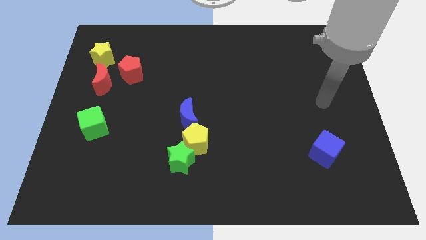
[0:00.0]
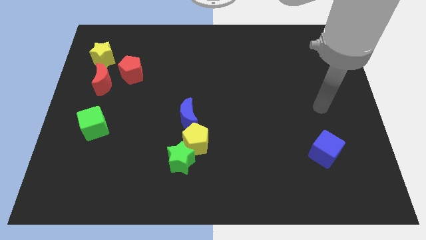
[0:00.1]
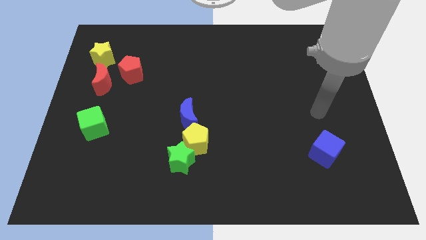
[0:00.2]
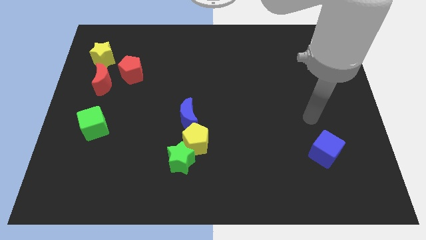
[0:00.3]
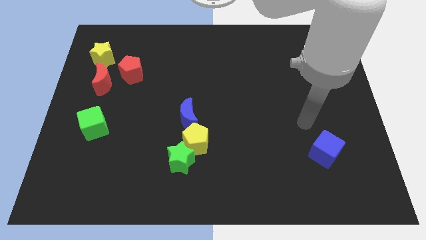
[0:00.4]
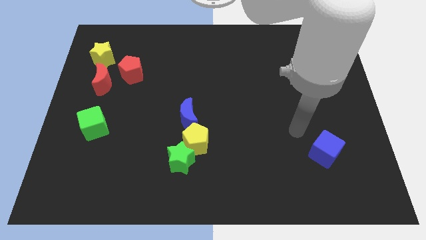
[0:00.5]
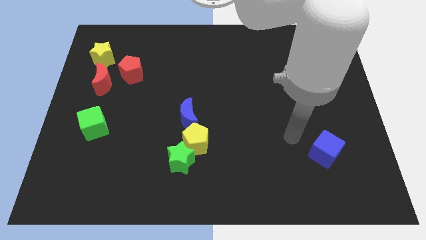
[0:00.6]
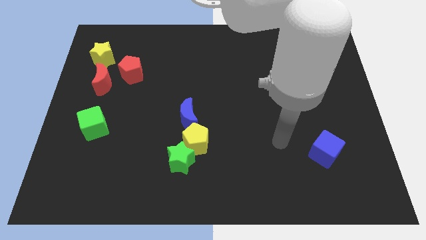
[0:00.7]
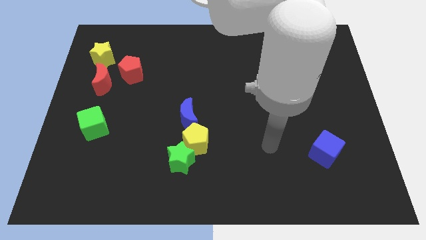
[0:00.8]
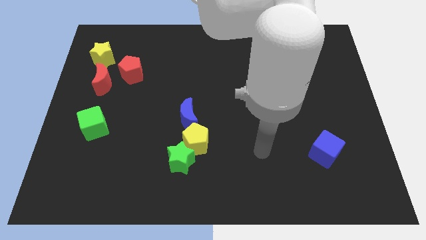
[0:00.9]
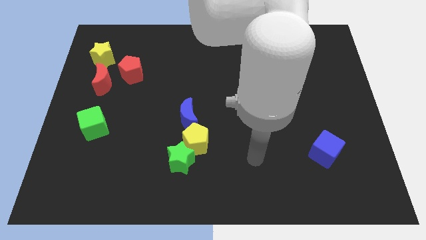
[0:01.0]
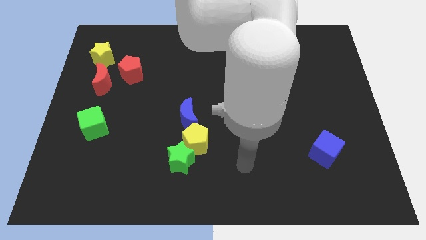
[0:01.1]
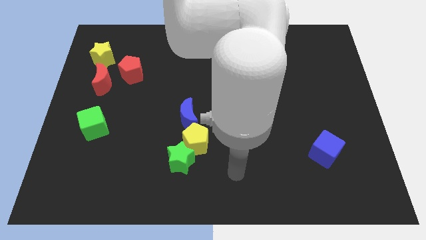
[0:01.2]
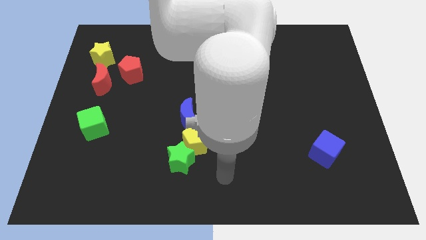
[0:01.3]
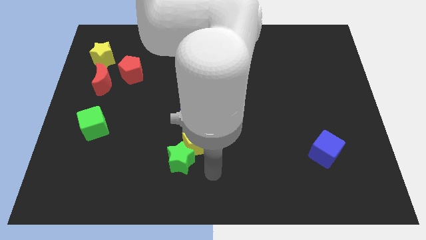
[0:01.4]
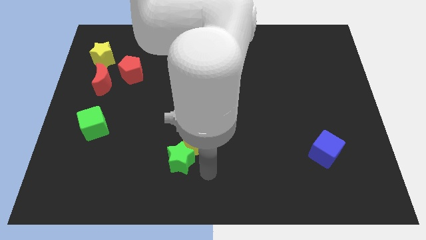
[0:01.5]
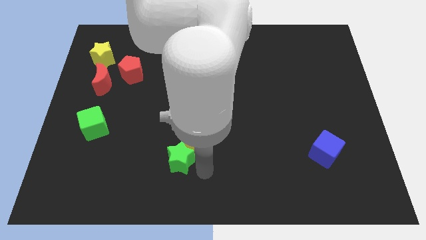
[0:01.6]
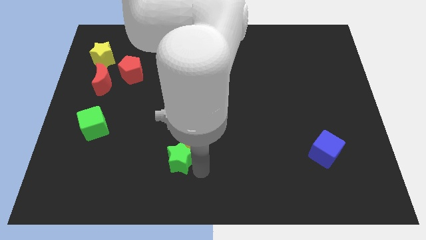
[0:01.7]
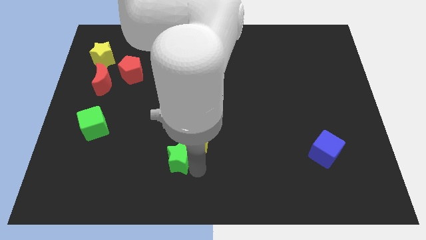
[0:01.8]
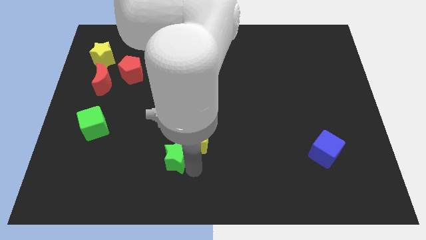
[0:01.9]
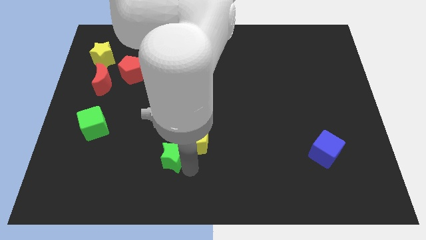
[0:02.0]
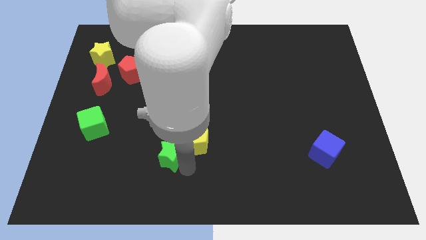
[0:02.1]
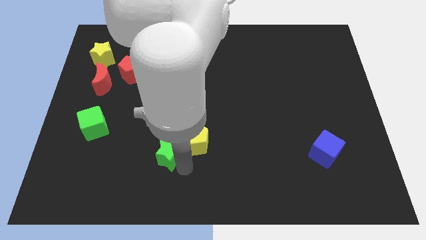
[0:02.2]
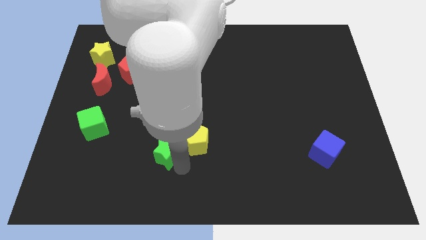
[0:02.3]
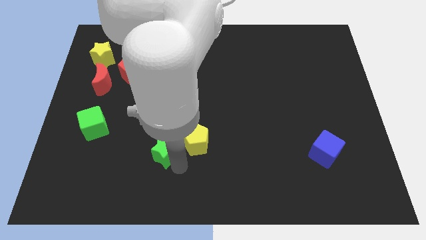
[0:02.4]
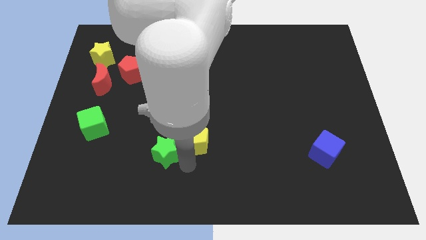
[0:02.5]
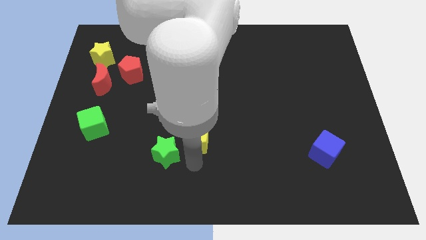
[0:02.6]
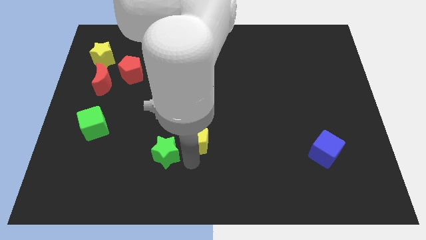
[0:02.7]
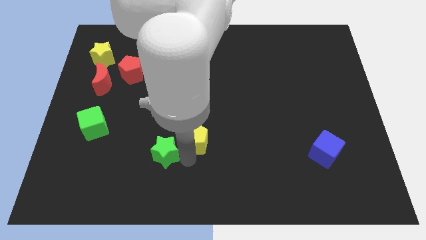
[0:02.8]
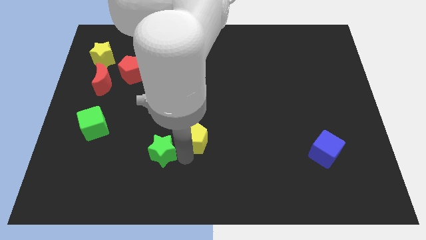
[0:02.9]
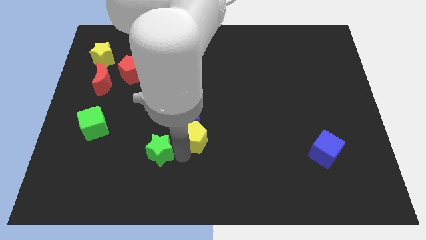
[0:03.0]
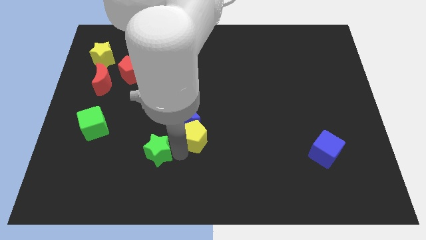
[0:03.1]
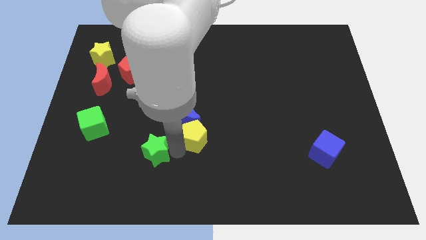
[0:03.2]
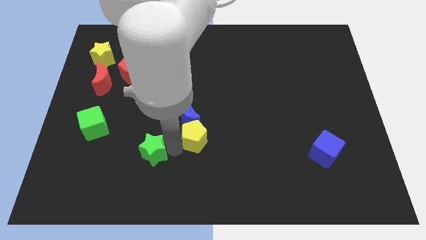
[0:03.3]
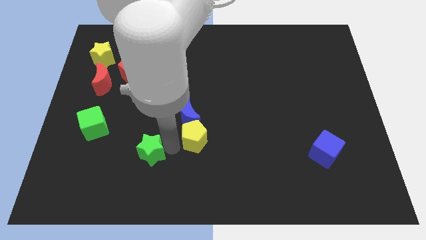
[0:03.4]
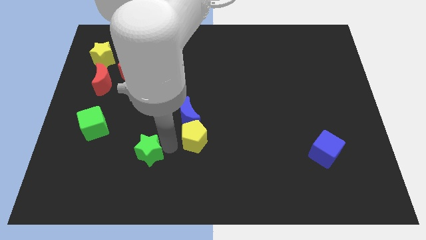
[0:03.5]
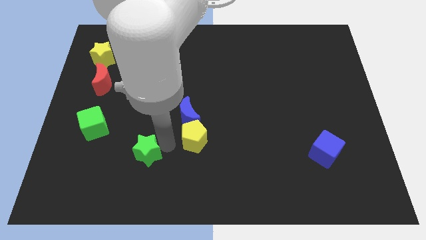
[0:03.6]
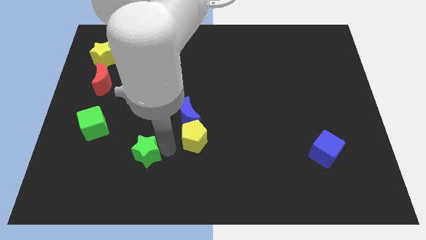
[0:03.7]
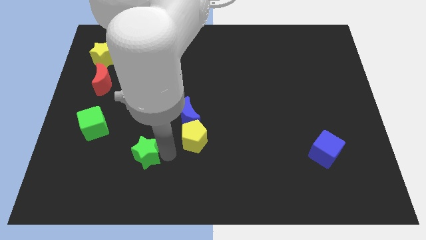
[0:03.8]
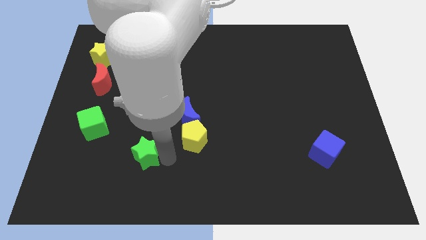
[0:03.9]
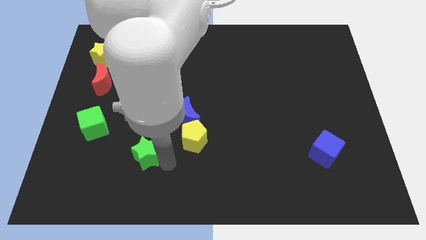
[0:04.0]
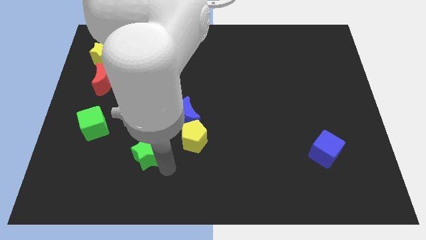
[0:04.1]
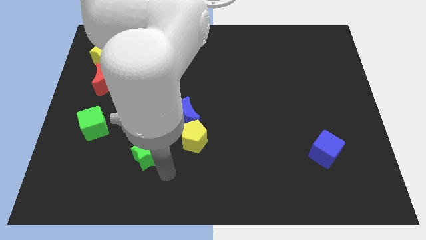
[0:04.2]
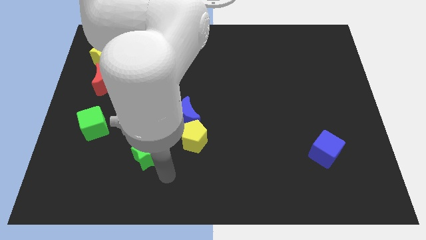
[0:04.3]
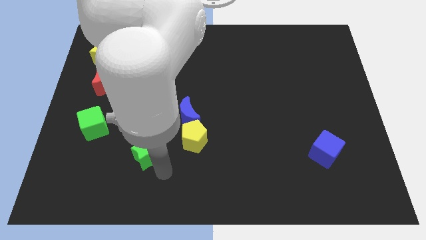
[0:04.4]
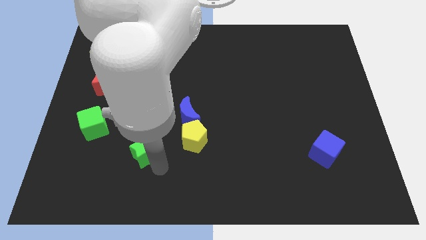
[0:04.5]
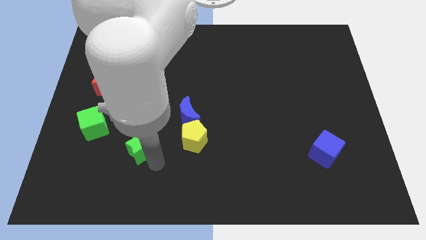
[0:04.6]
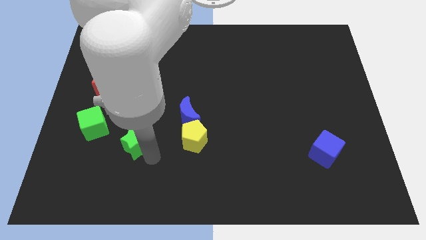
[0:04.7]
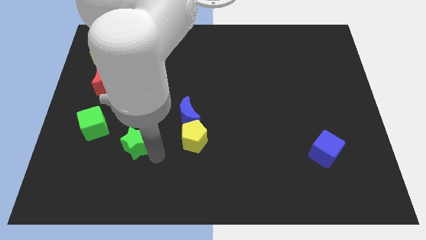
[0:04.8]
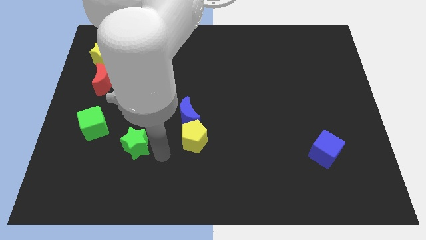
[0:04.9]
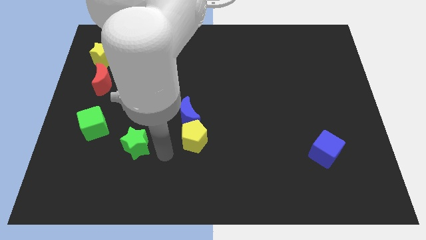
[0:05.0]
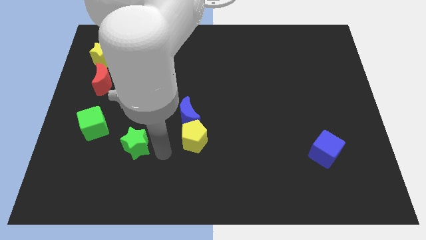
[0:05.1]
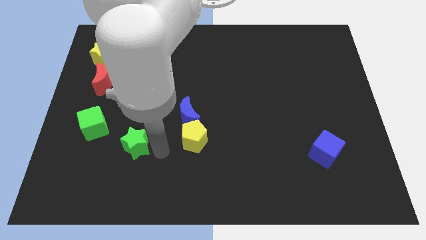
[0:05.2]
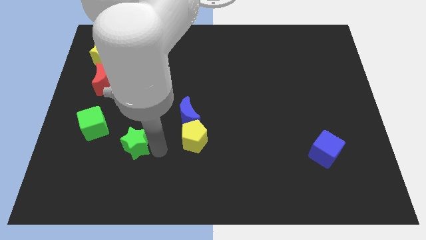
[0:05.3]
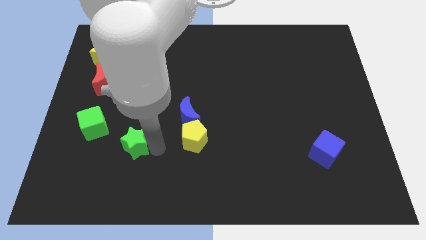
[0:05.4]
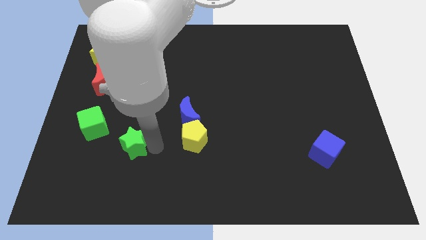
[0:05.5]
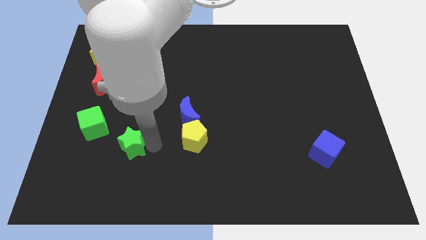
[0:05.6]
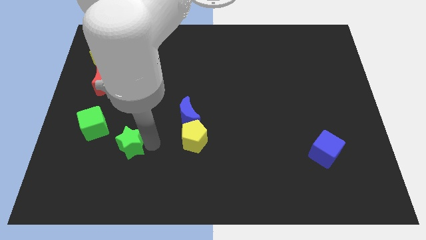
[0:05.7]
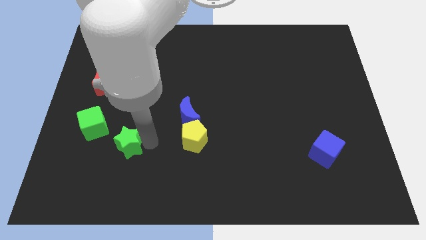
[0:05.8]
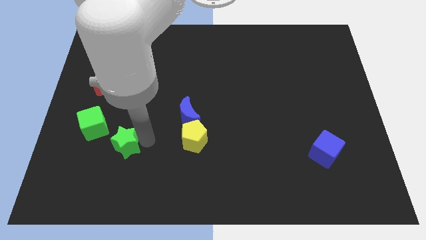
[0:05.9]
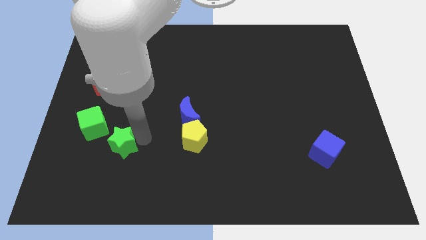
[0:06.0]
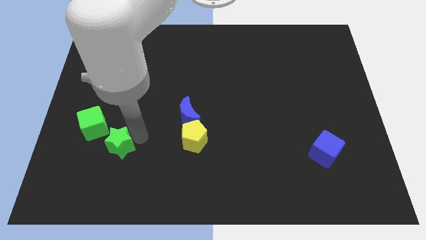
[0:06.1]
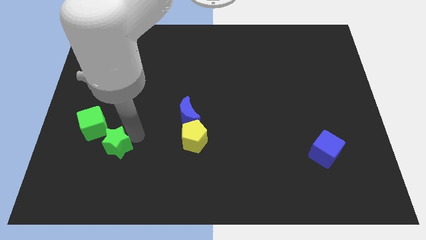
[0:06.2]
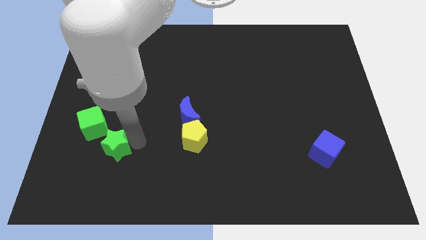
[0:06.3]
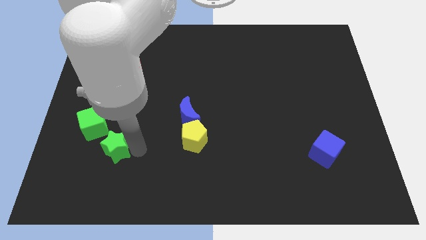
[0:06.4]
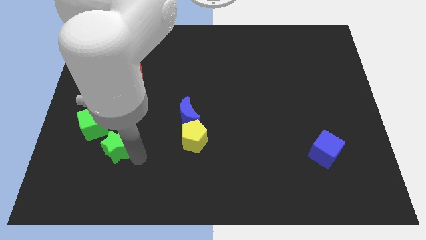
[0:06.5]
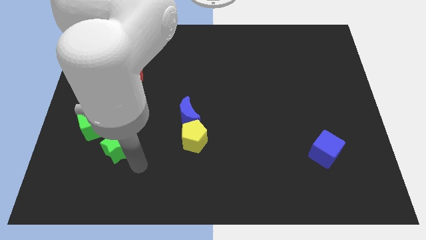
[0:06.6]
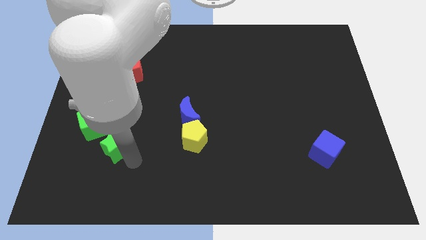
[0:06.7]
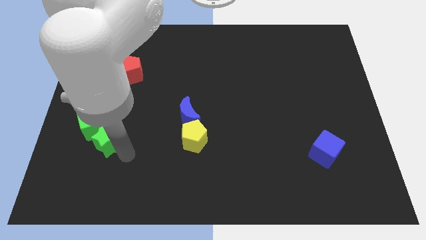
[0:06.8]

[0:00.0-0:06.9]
move the green star towards the green cube

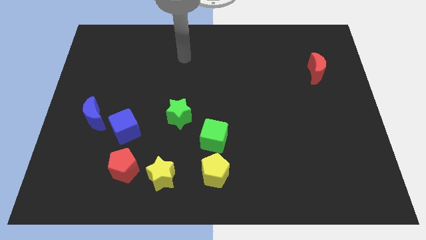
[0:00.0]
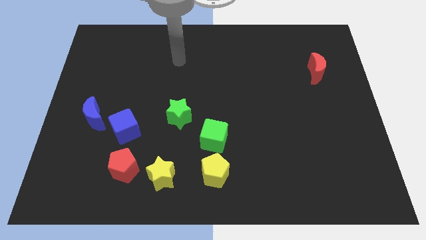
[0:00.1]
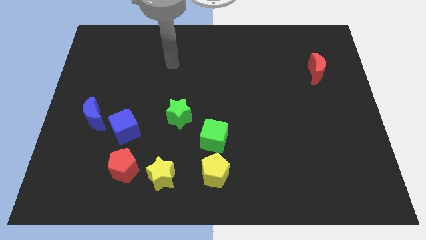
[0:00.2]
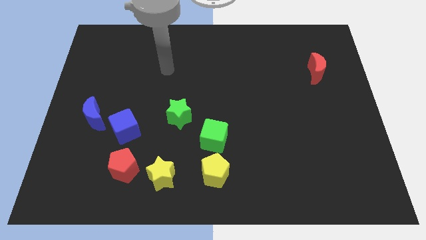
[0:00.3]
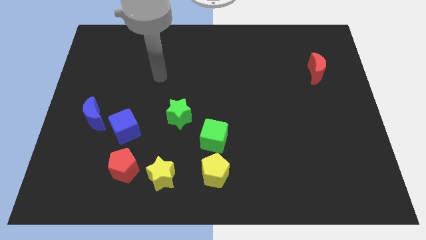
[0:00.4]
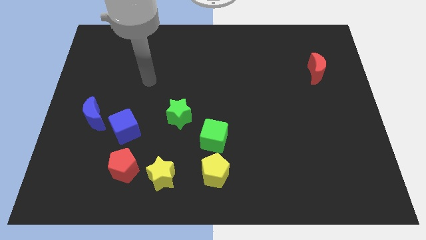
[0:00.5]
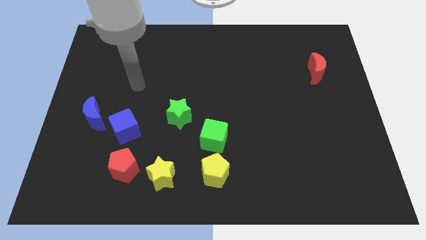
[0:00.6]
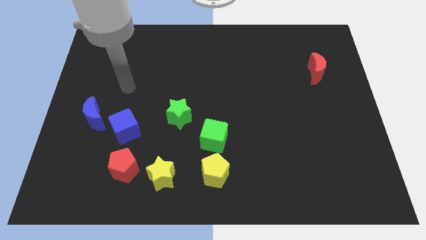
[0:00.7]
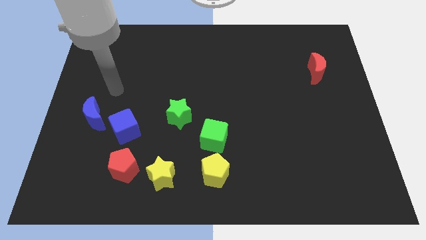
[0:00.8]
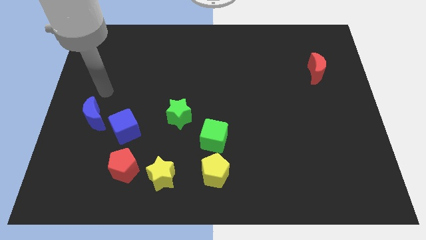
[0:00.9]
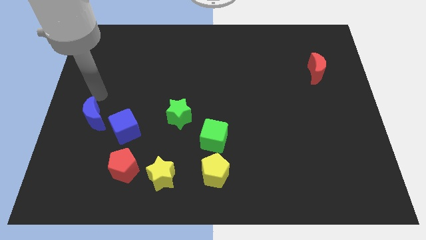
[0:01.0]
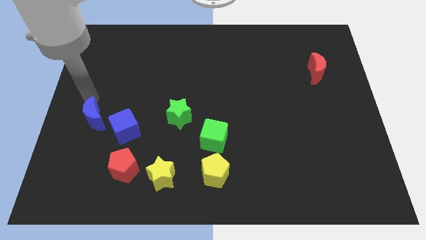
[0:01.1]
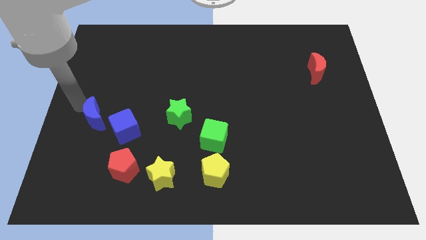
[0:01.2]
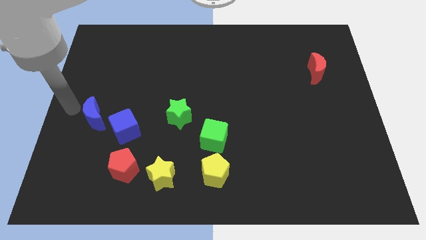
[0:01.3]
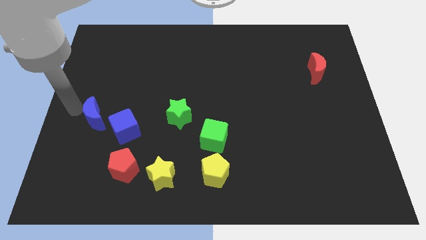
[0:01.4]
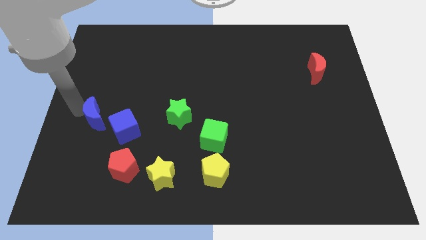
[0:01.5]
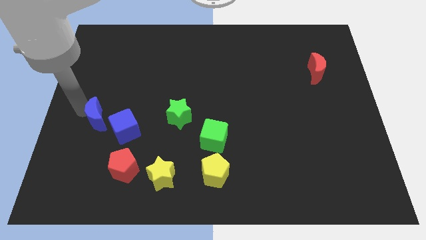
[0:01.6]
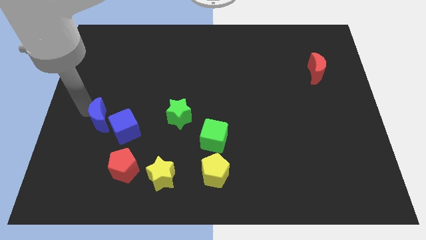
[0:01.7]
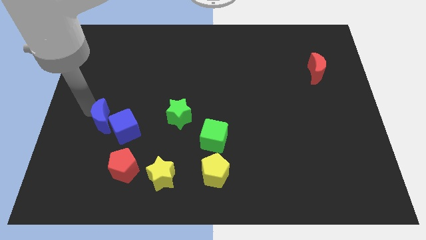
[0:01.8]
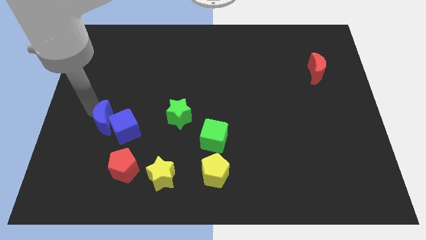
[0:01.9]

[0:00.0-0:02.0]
move the blue moon next to the blue cube
